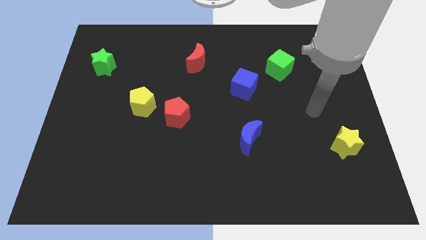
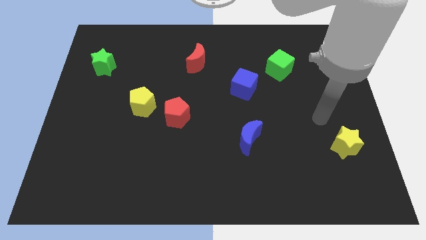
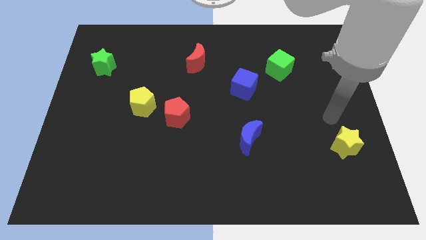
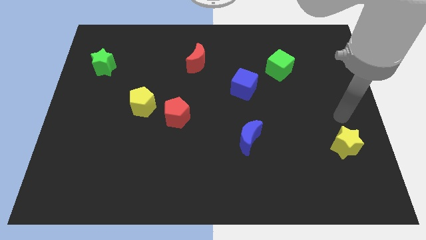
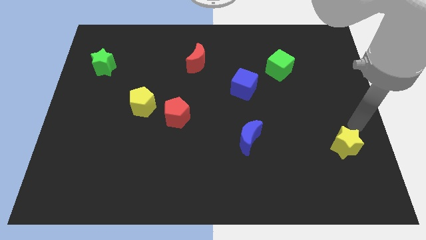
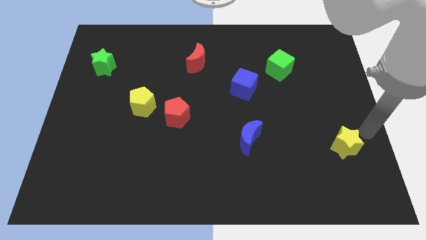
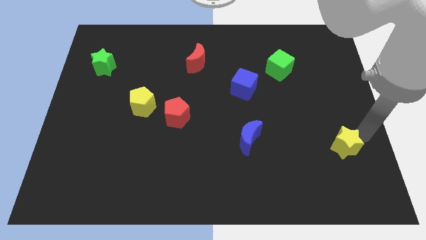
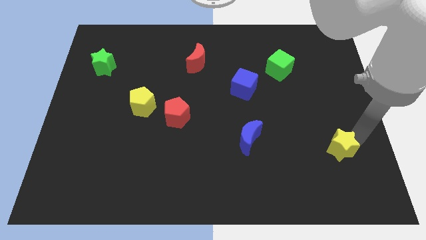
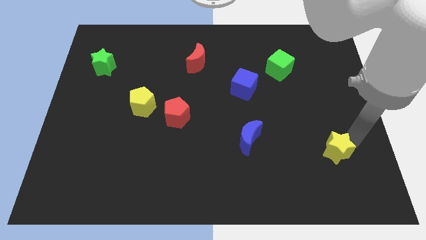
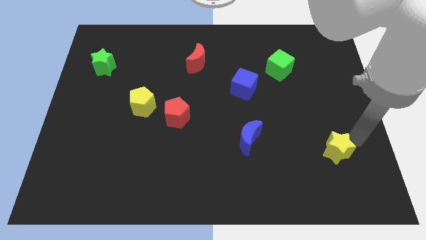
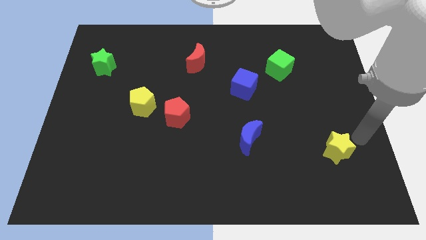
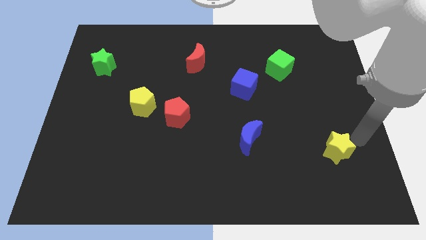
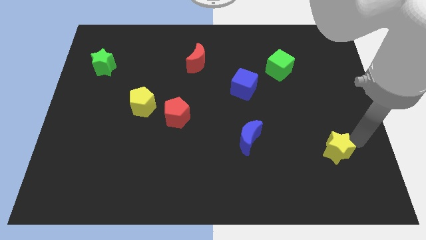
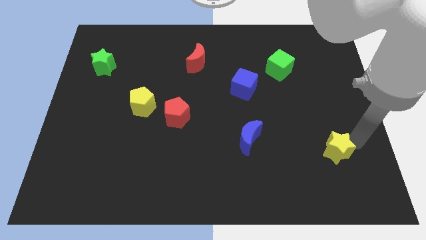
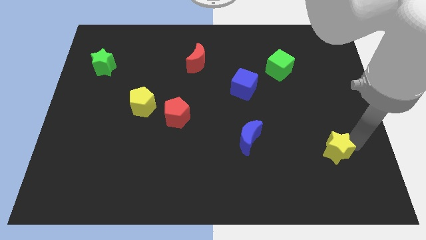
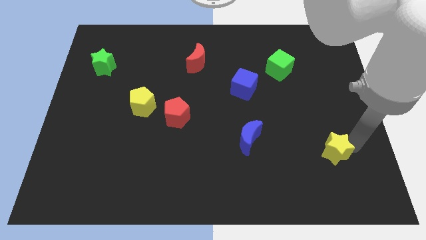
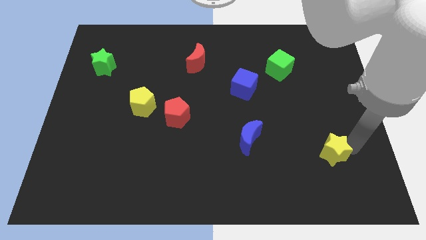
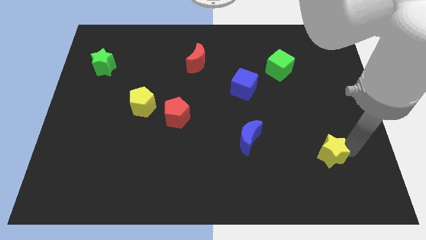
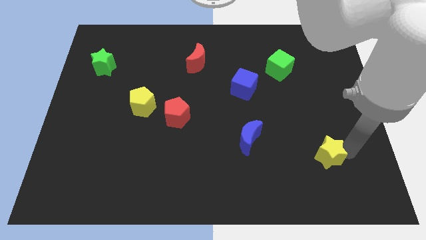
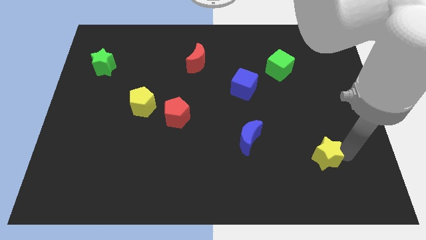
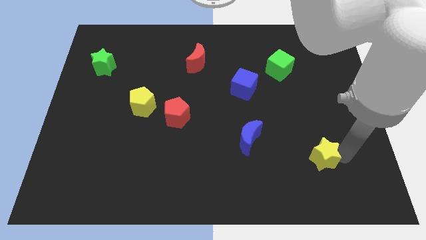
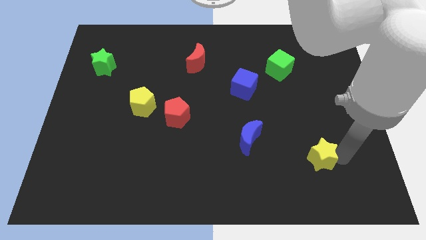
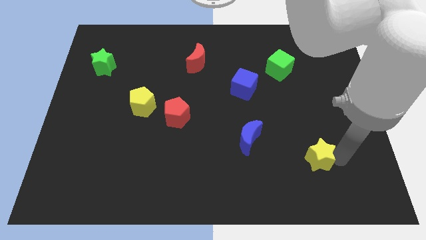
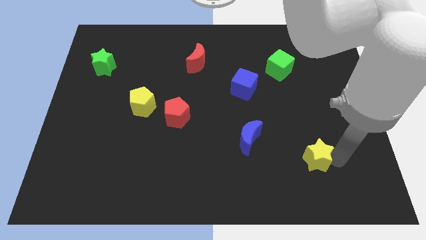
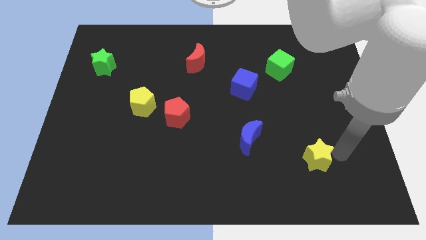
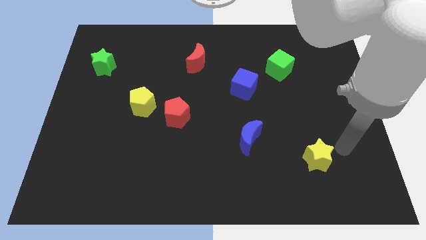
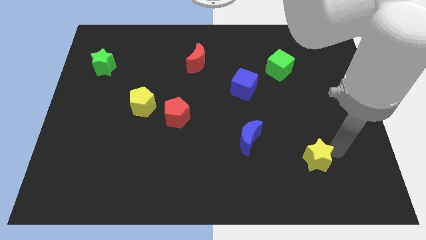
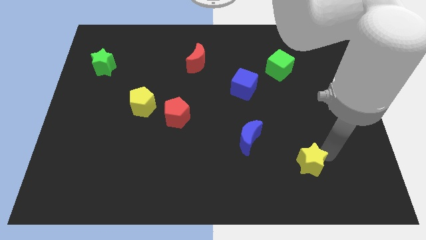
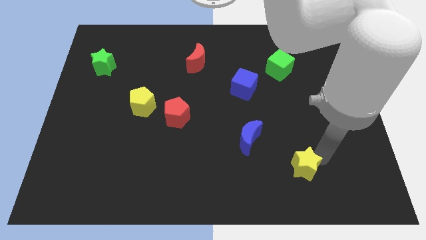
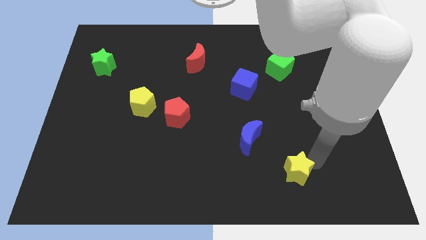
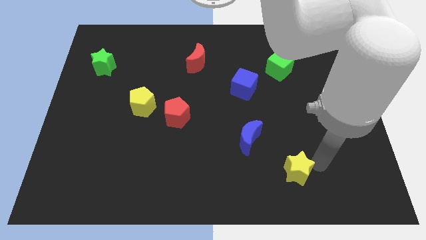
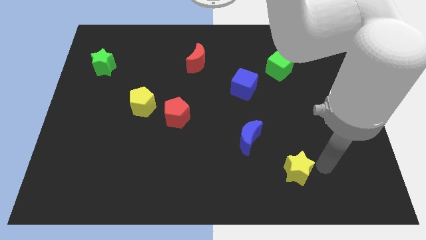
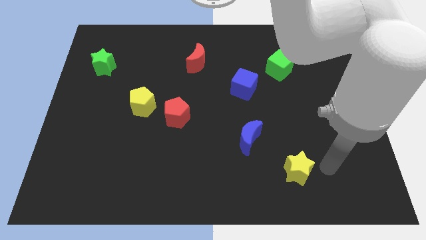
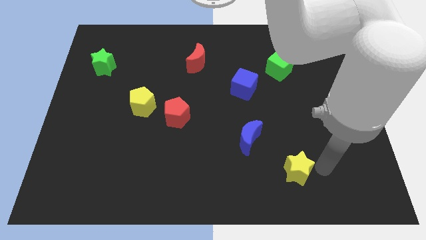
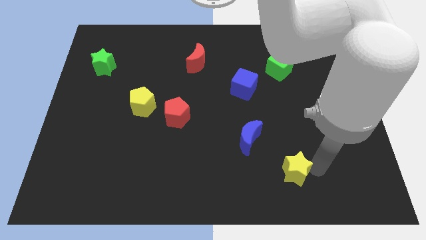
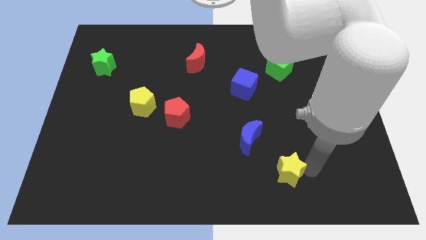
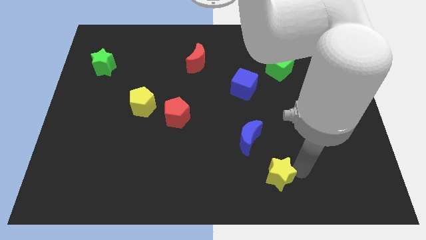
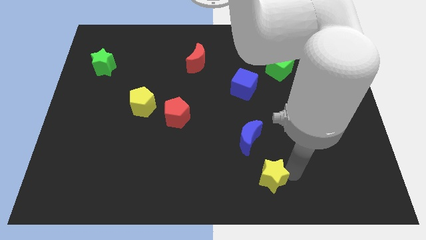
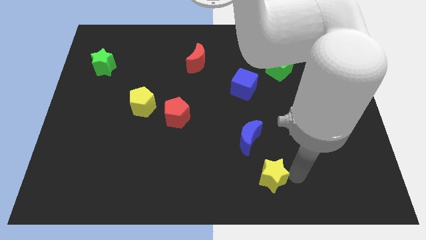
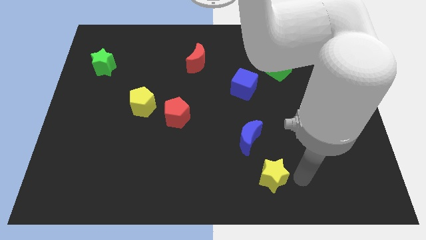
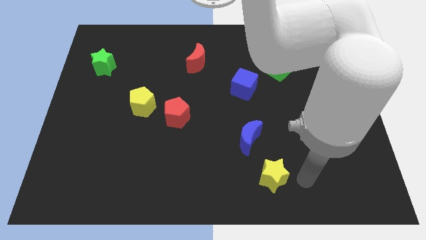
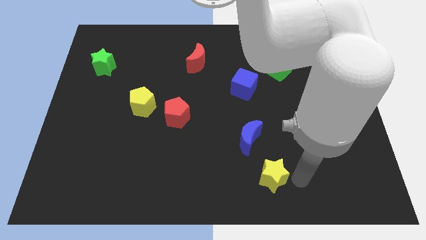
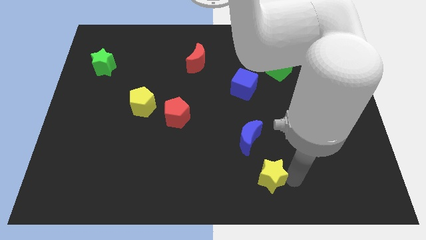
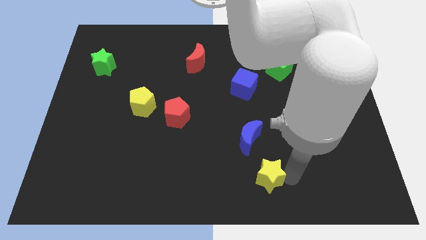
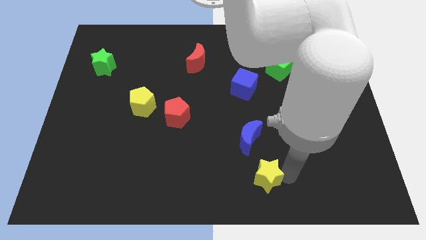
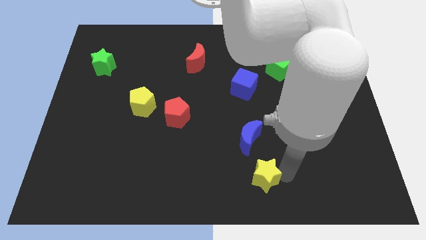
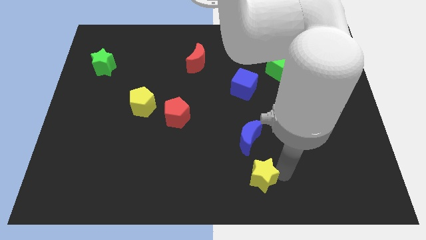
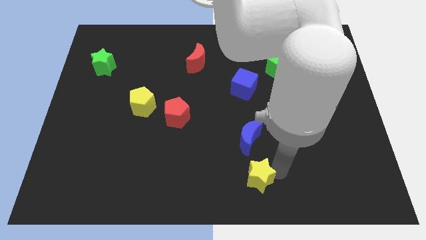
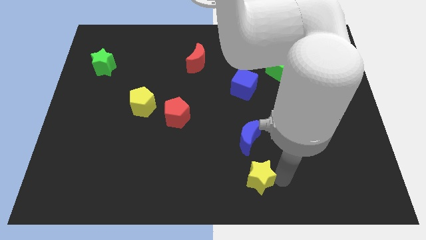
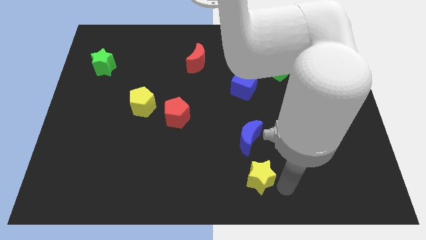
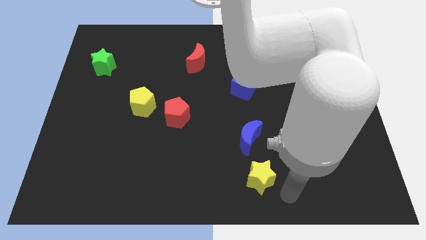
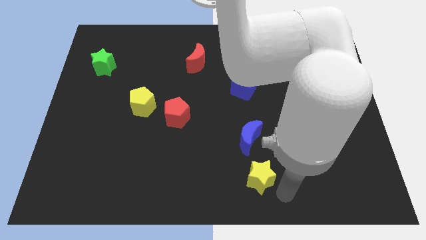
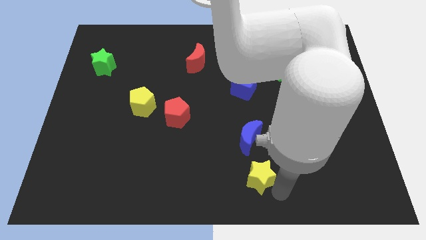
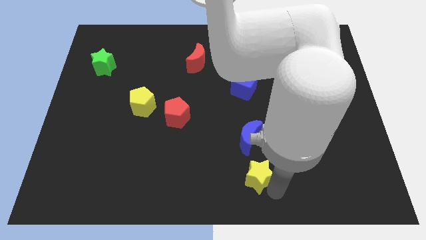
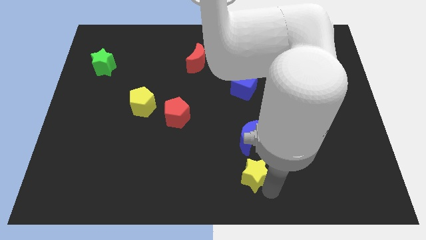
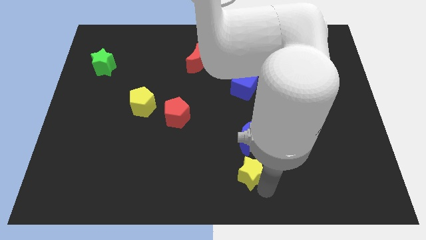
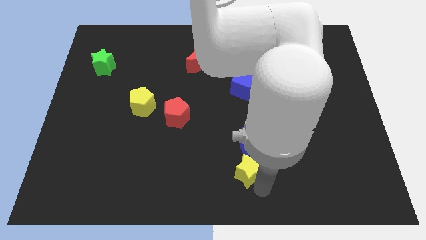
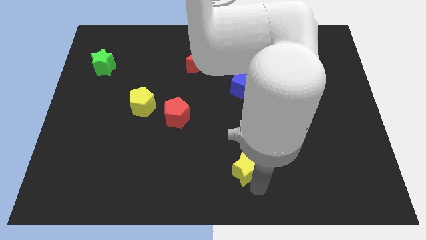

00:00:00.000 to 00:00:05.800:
slide the yellow star left

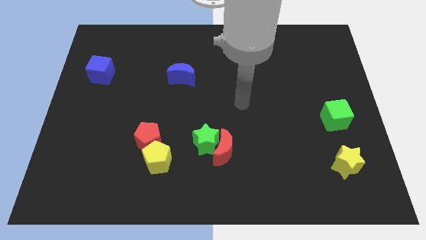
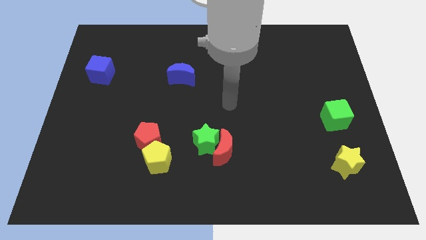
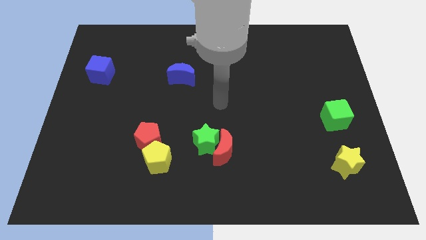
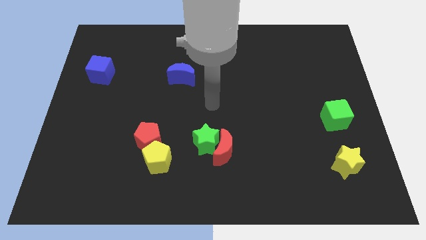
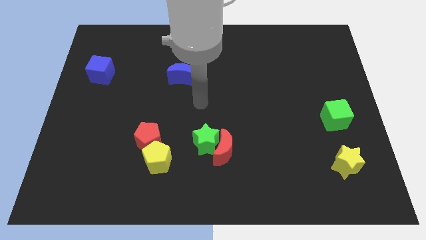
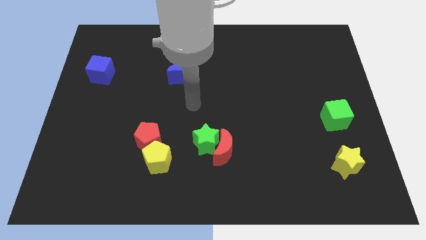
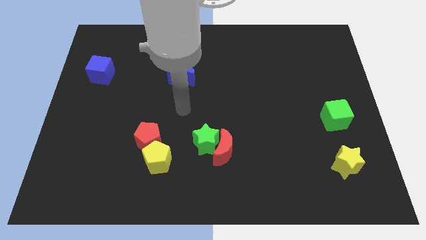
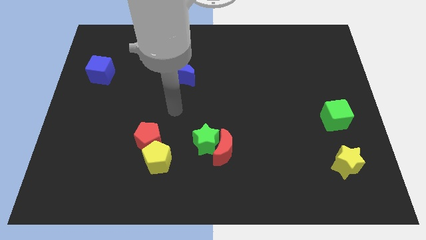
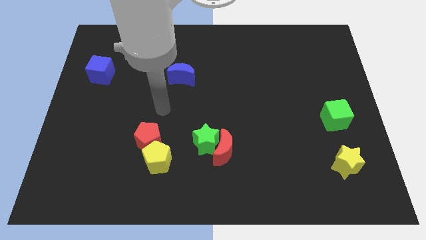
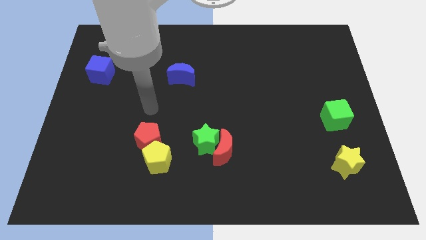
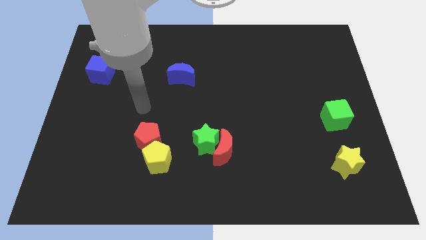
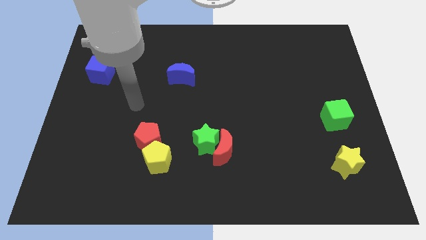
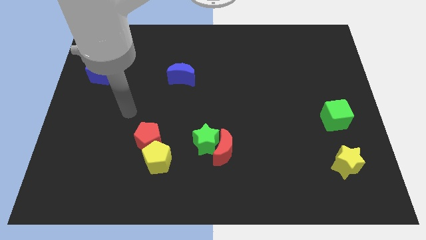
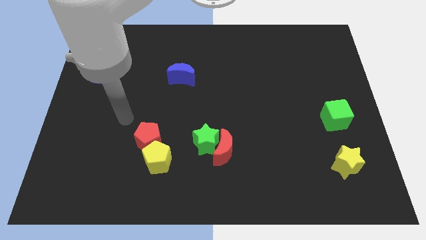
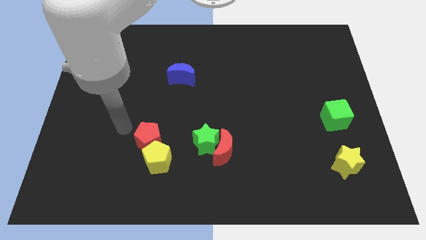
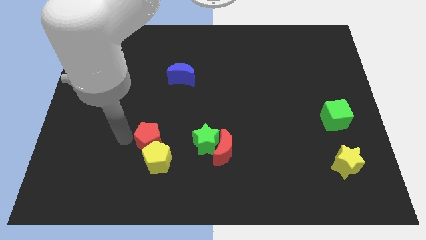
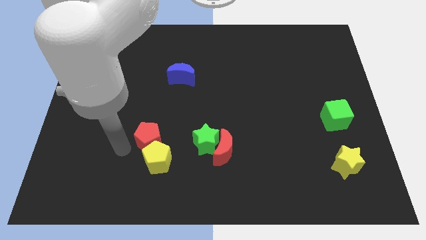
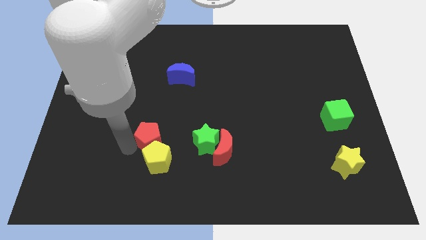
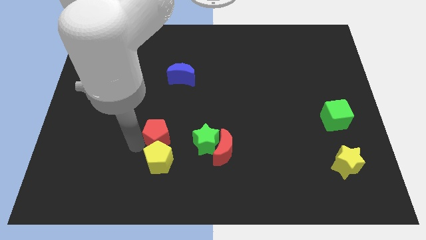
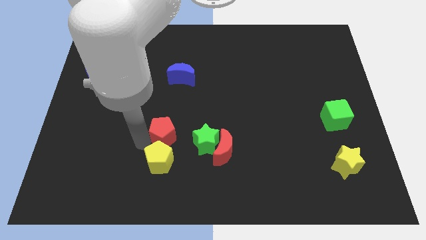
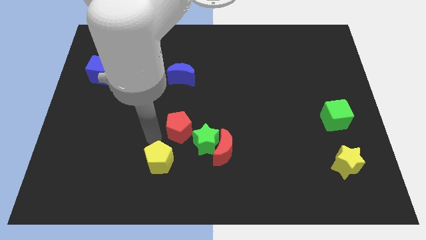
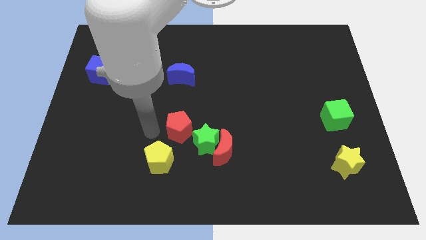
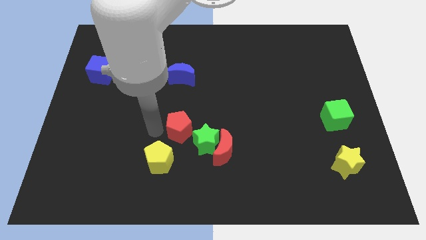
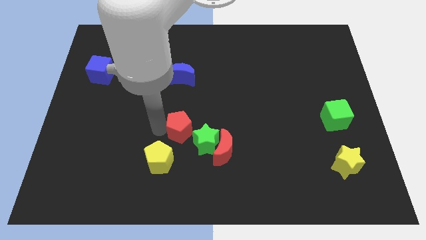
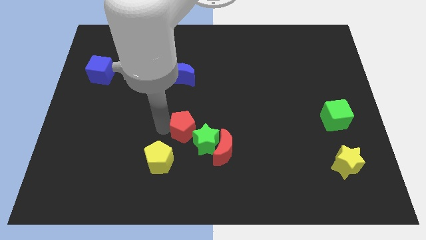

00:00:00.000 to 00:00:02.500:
slide the red pentagon slightly to the right
